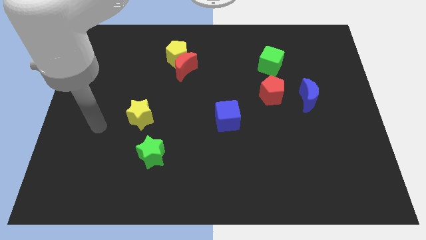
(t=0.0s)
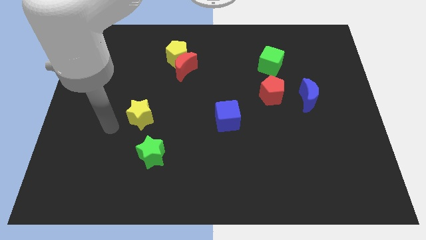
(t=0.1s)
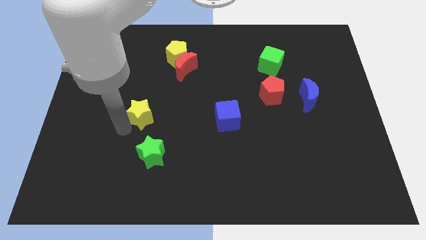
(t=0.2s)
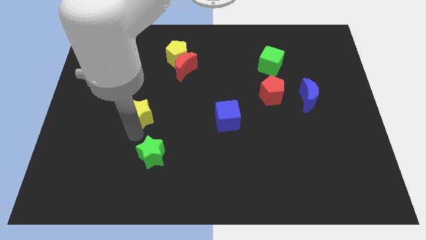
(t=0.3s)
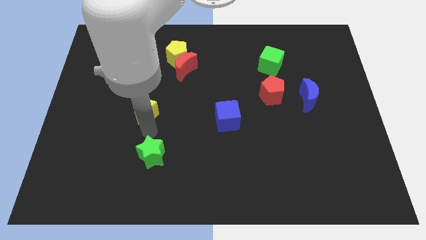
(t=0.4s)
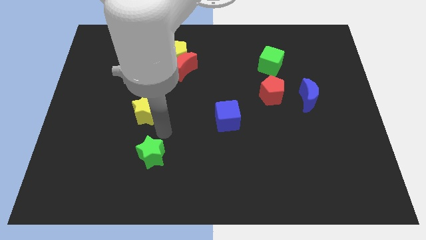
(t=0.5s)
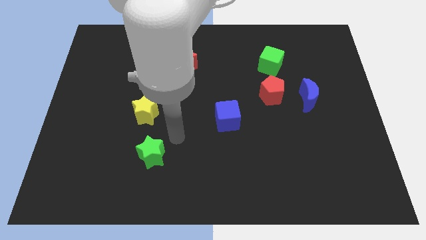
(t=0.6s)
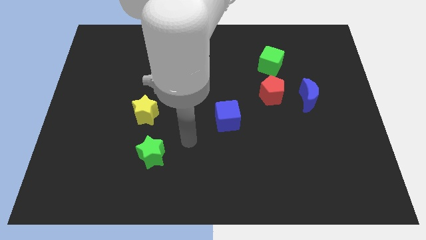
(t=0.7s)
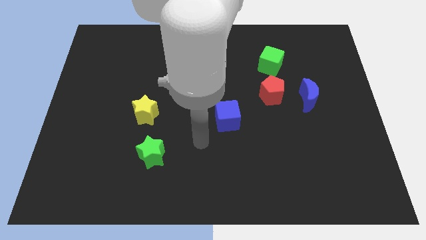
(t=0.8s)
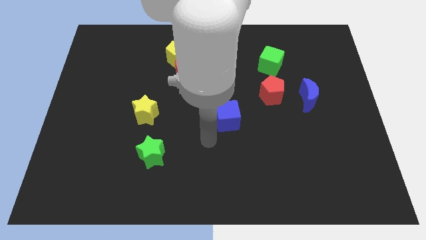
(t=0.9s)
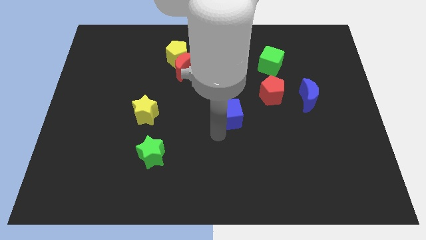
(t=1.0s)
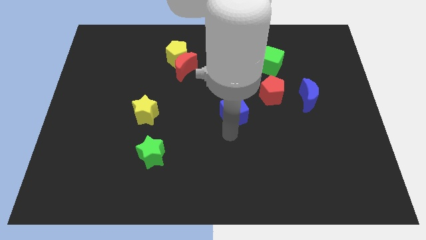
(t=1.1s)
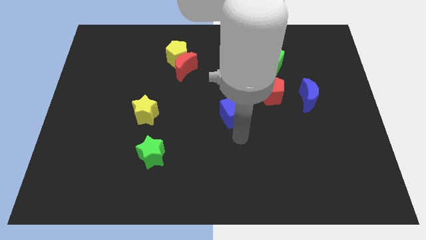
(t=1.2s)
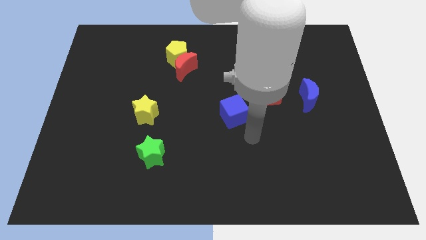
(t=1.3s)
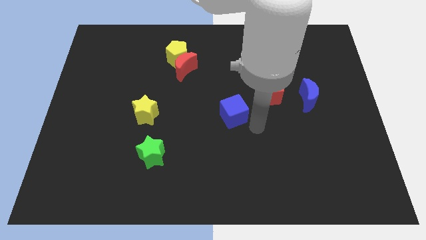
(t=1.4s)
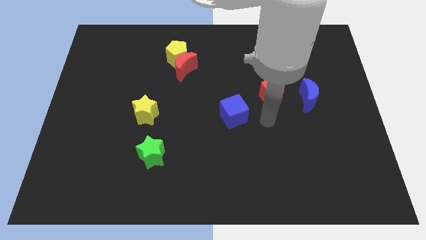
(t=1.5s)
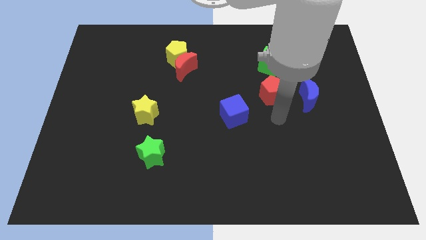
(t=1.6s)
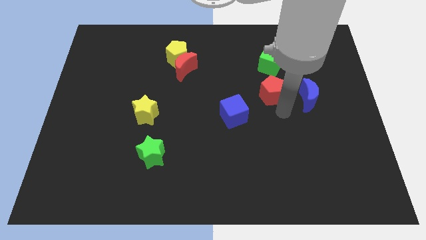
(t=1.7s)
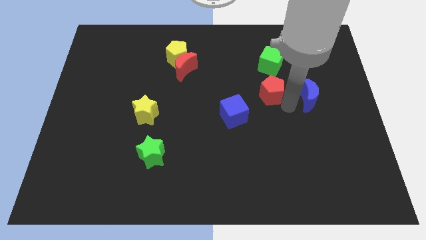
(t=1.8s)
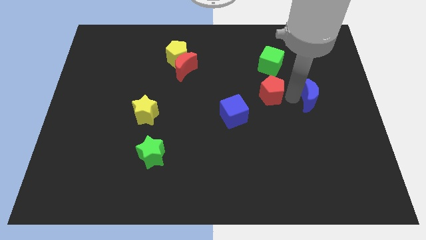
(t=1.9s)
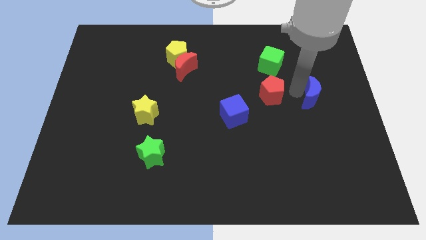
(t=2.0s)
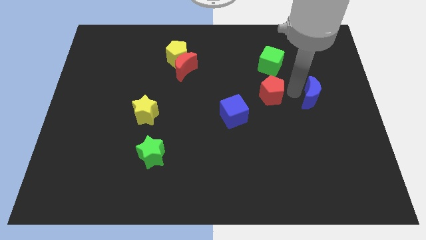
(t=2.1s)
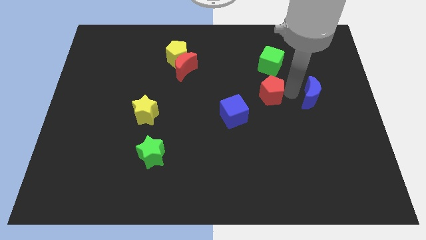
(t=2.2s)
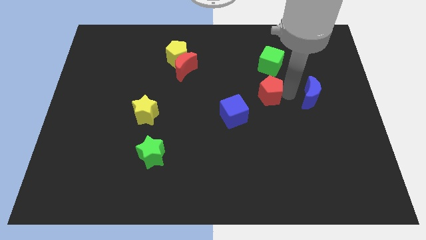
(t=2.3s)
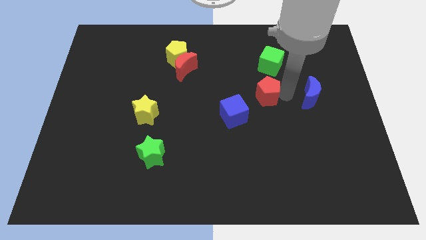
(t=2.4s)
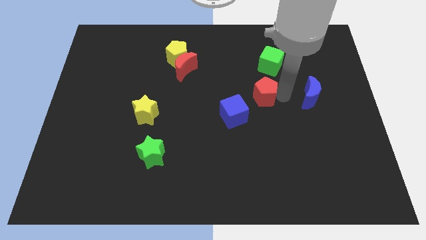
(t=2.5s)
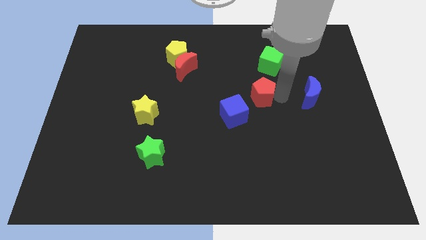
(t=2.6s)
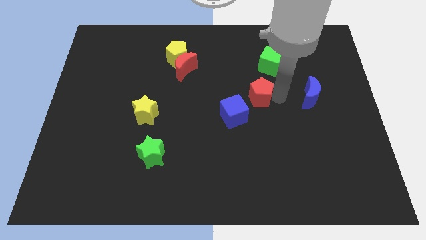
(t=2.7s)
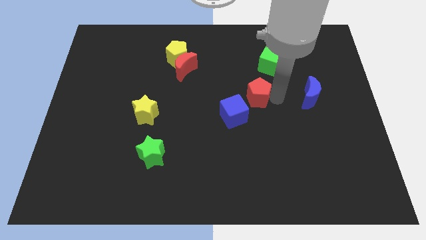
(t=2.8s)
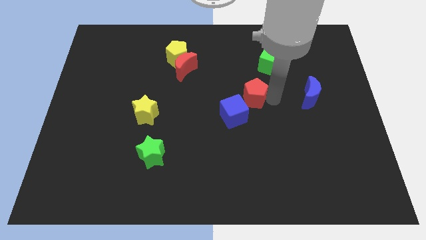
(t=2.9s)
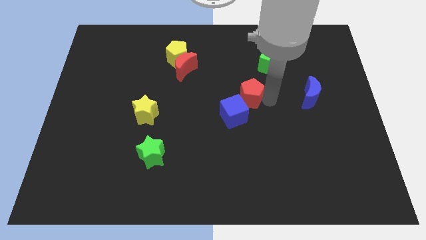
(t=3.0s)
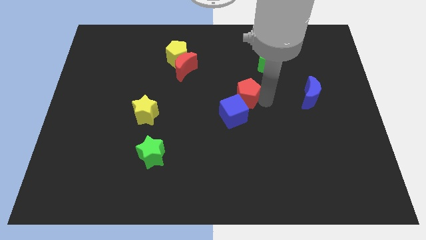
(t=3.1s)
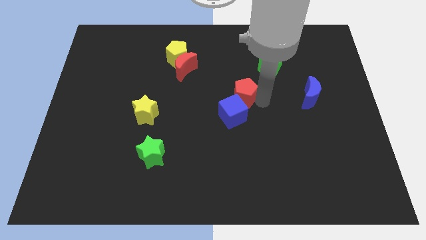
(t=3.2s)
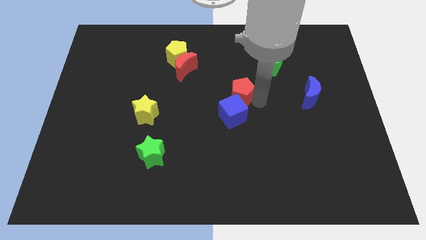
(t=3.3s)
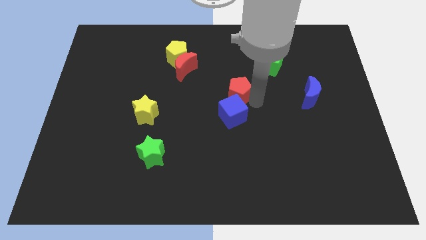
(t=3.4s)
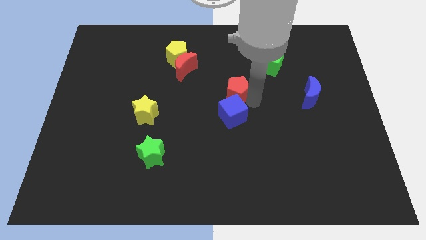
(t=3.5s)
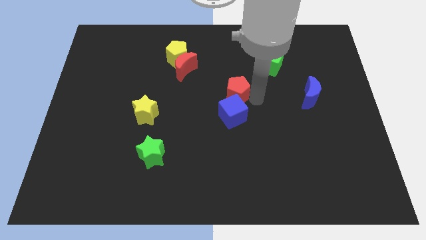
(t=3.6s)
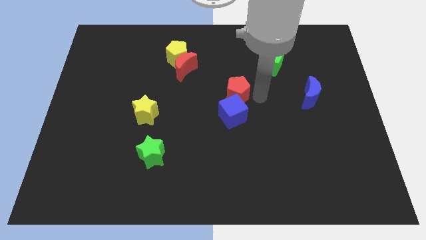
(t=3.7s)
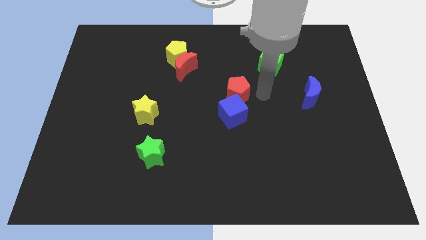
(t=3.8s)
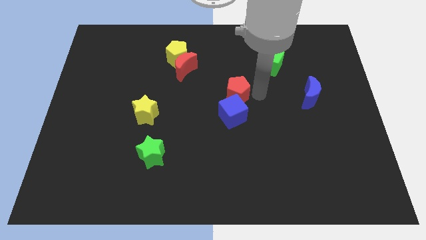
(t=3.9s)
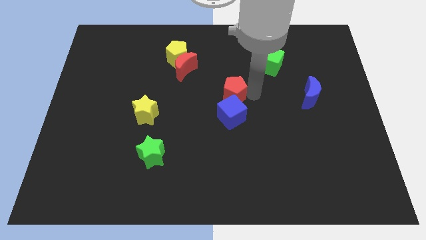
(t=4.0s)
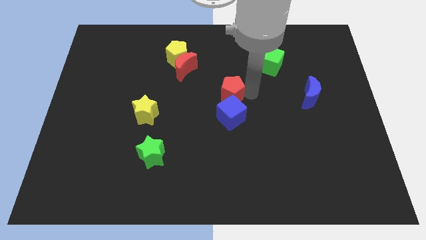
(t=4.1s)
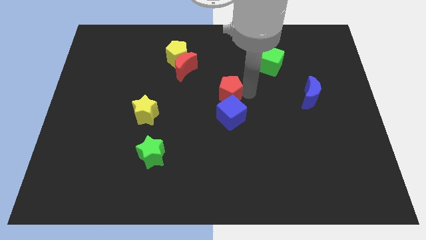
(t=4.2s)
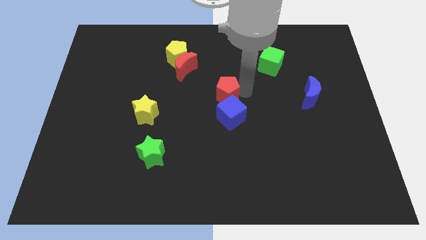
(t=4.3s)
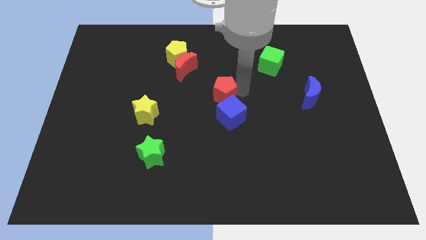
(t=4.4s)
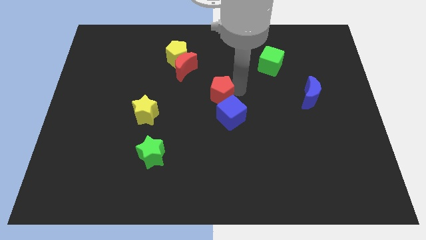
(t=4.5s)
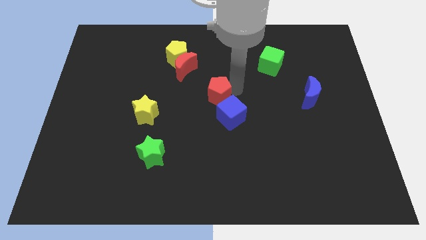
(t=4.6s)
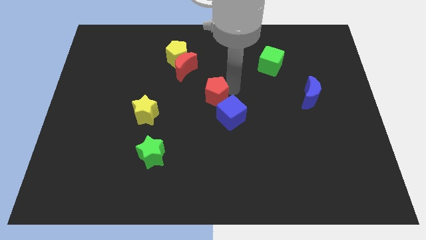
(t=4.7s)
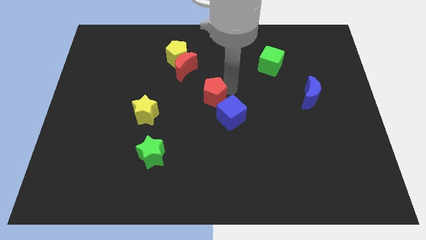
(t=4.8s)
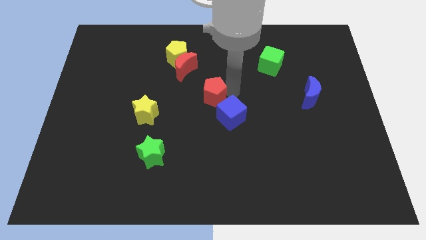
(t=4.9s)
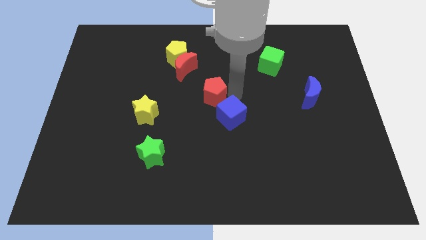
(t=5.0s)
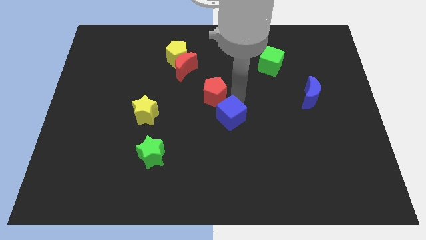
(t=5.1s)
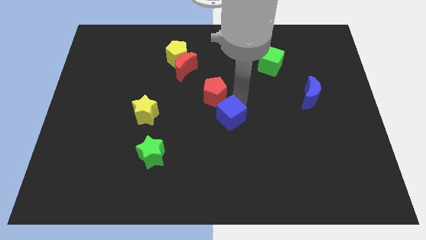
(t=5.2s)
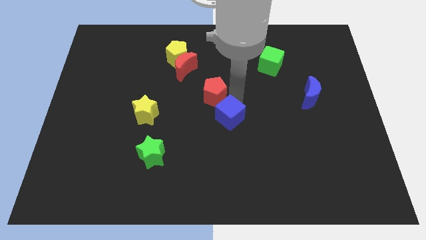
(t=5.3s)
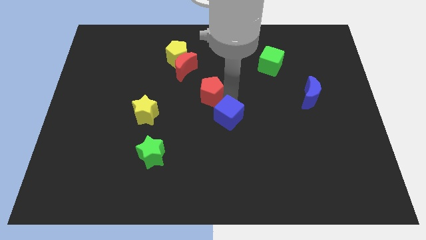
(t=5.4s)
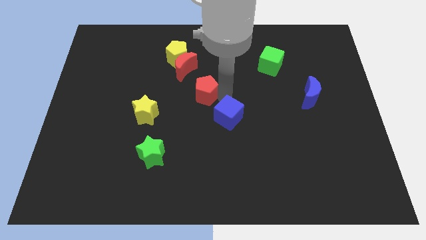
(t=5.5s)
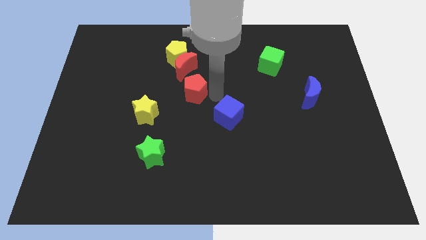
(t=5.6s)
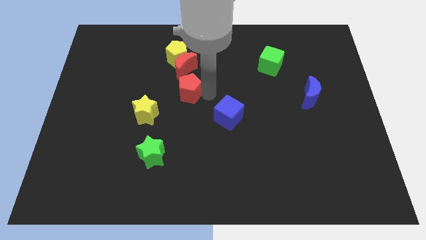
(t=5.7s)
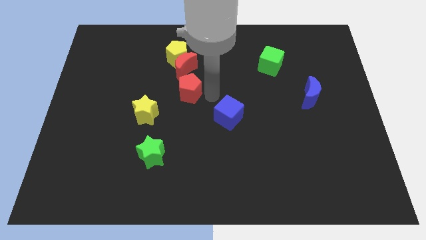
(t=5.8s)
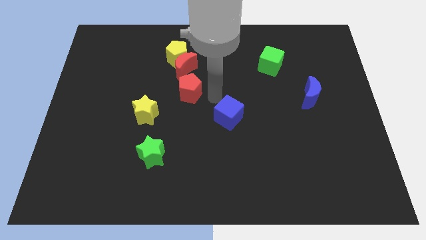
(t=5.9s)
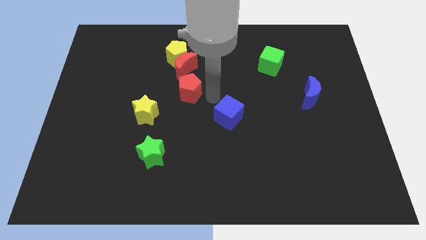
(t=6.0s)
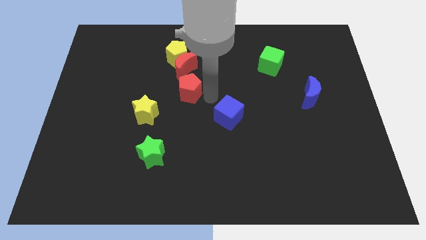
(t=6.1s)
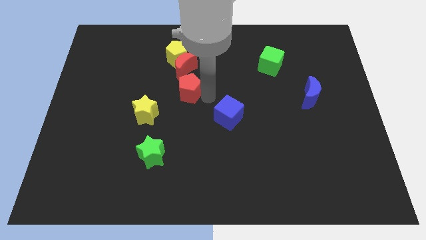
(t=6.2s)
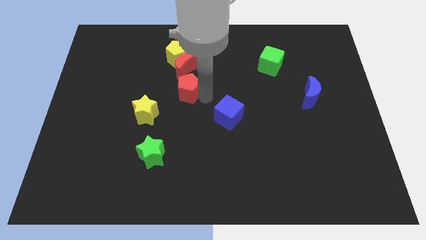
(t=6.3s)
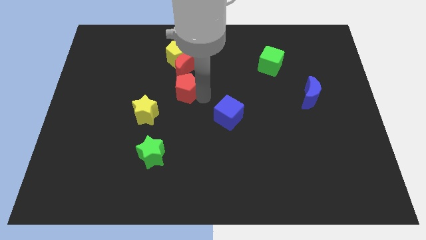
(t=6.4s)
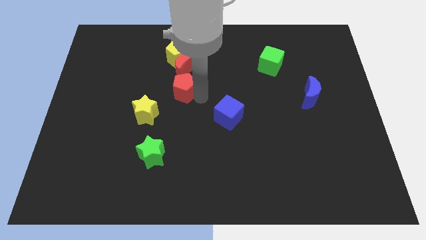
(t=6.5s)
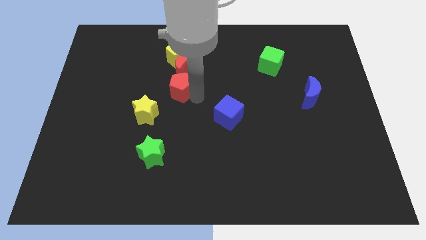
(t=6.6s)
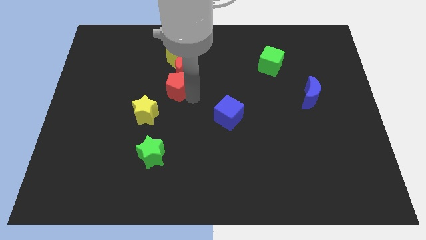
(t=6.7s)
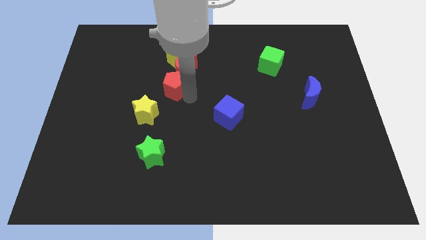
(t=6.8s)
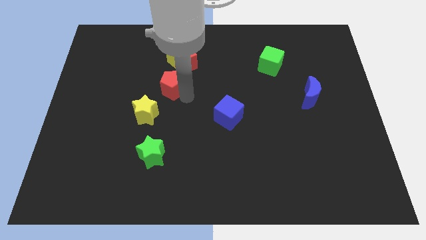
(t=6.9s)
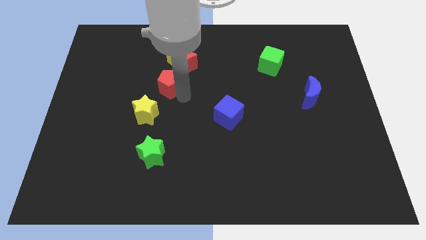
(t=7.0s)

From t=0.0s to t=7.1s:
put the red pentagon above the yellow star
